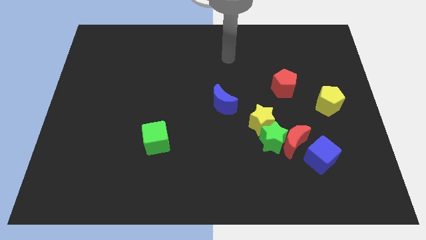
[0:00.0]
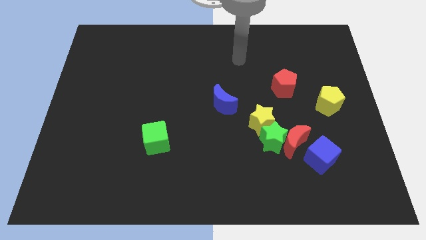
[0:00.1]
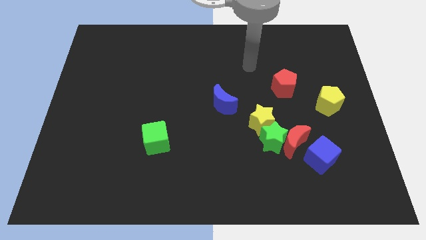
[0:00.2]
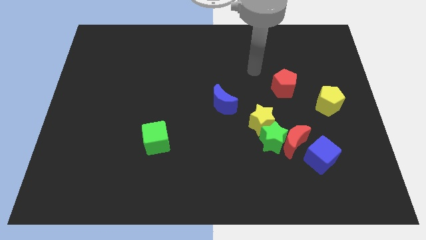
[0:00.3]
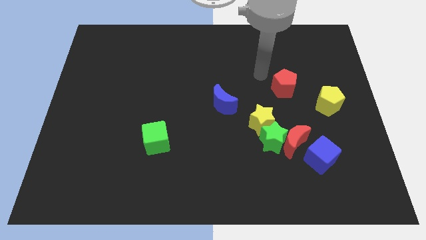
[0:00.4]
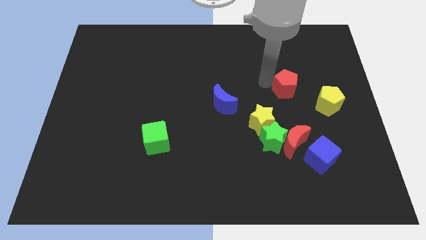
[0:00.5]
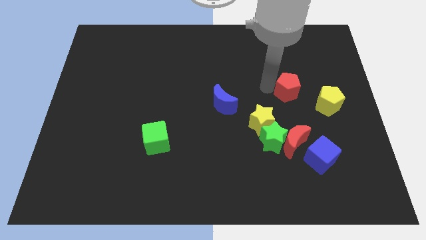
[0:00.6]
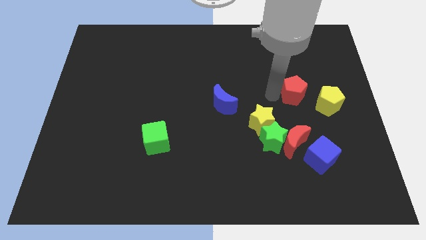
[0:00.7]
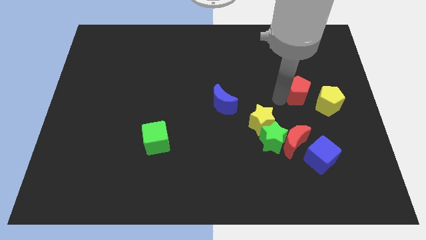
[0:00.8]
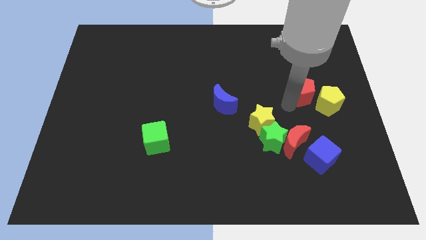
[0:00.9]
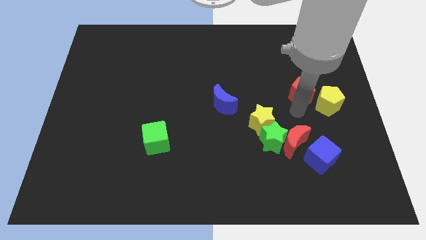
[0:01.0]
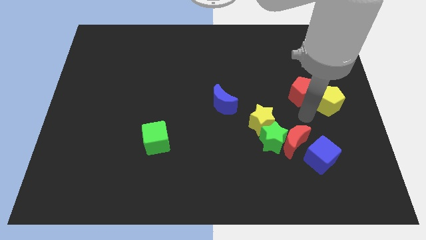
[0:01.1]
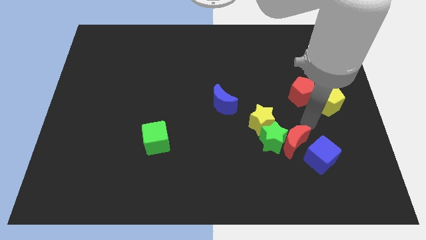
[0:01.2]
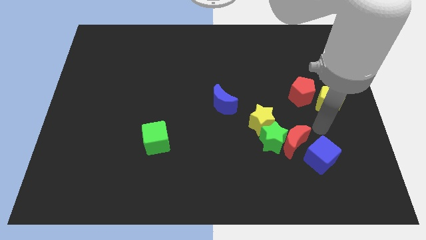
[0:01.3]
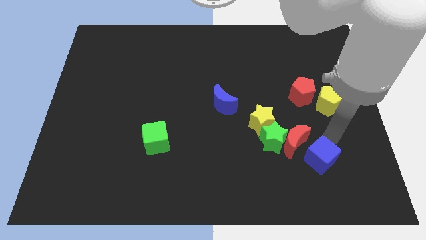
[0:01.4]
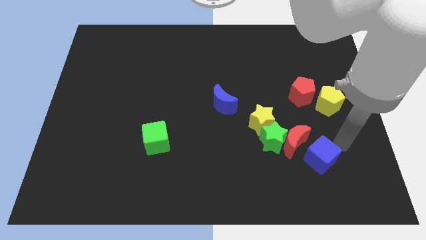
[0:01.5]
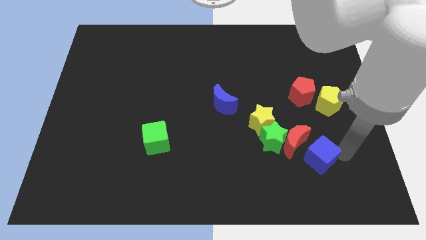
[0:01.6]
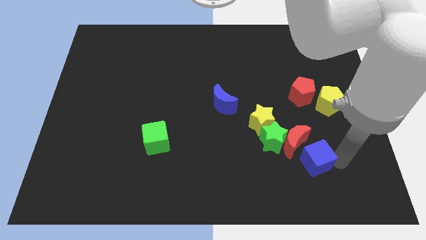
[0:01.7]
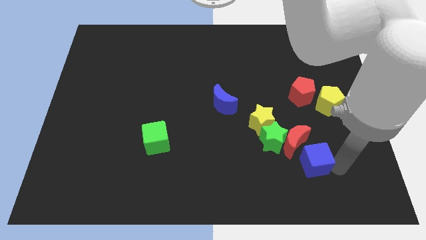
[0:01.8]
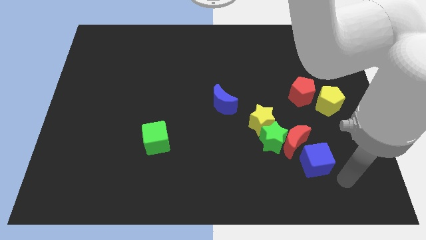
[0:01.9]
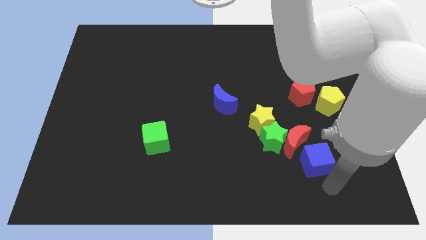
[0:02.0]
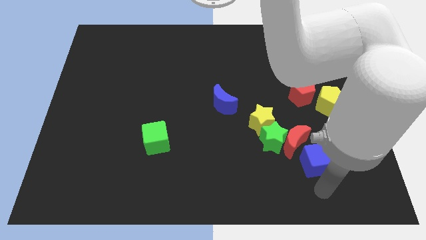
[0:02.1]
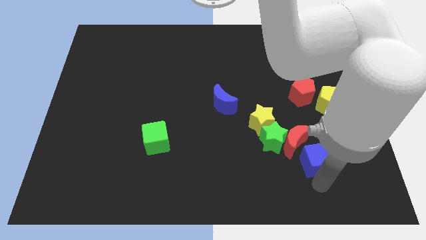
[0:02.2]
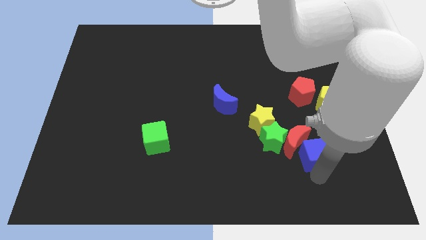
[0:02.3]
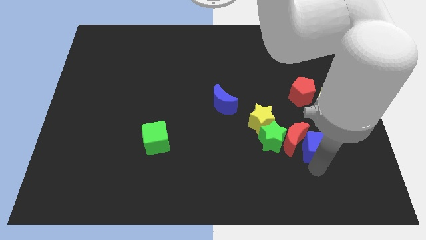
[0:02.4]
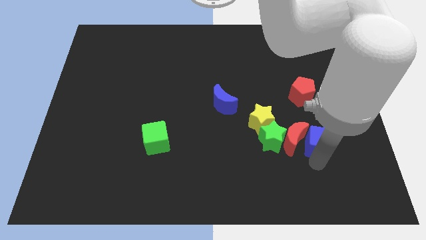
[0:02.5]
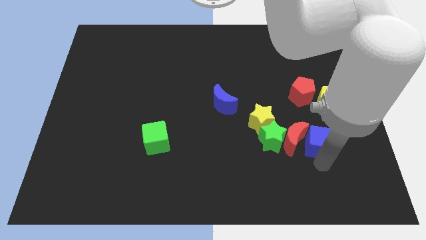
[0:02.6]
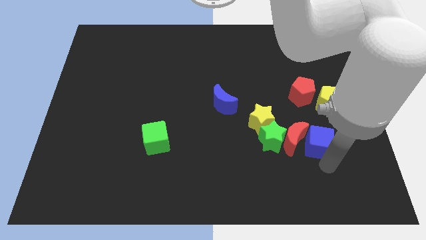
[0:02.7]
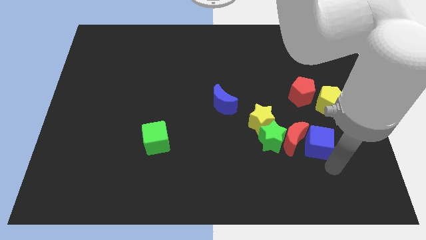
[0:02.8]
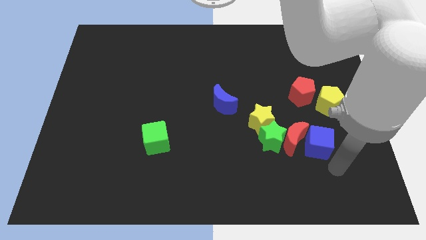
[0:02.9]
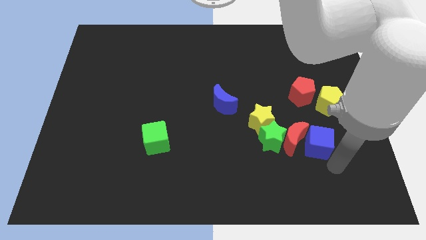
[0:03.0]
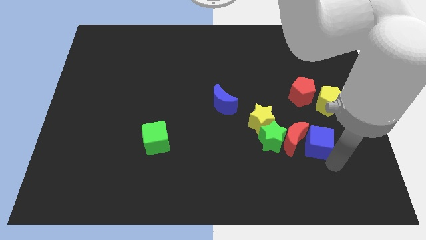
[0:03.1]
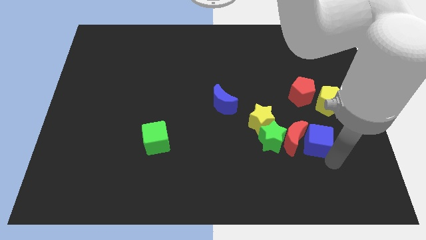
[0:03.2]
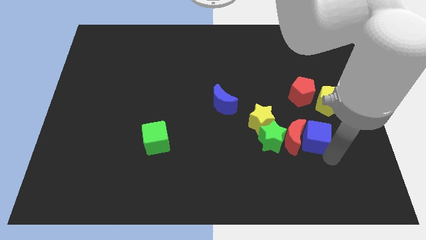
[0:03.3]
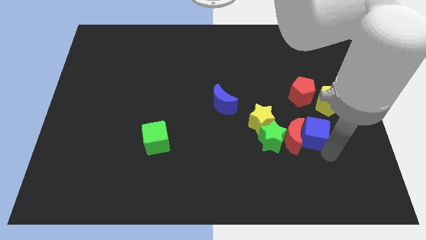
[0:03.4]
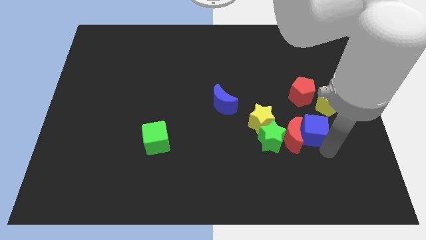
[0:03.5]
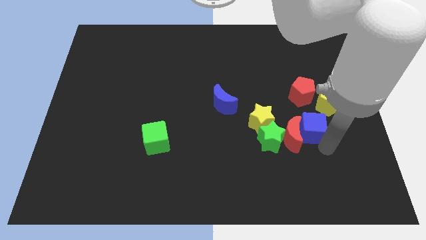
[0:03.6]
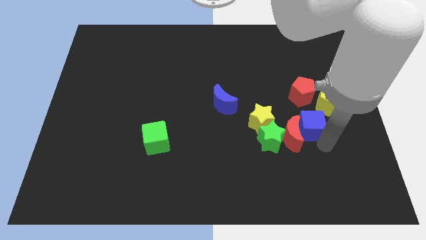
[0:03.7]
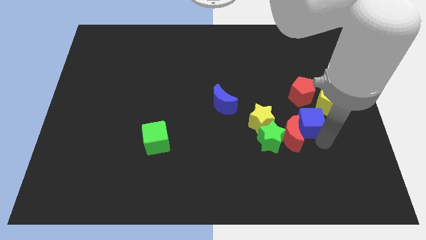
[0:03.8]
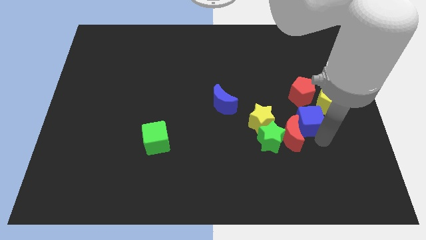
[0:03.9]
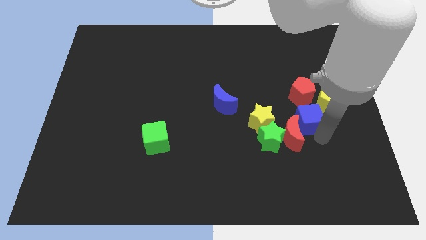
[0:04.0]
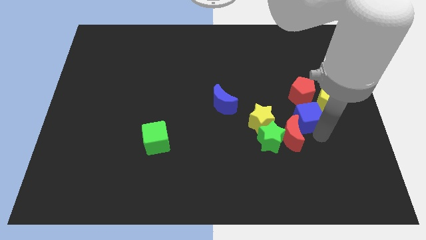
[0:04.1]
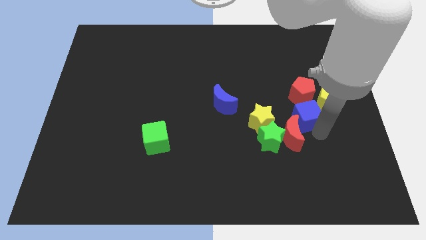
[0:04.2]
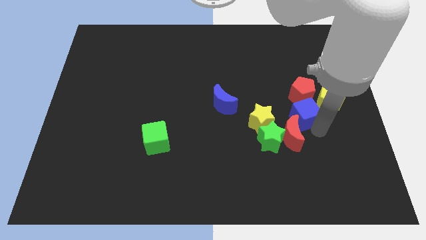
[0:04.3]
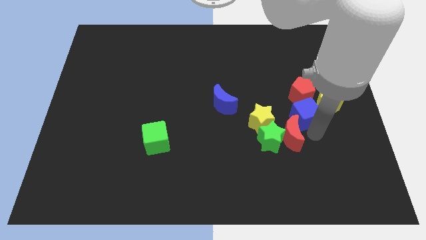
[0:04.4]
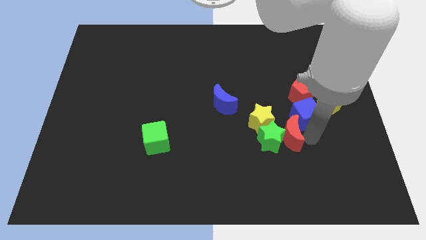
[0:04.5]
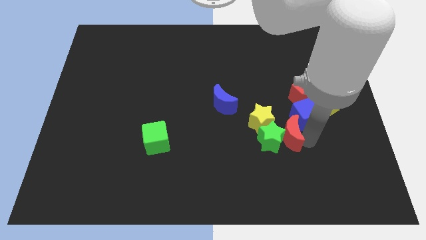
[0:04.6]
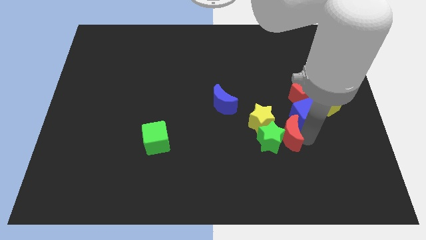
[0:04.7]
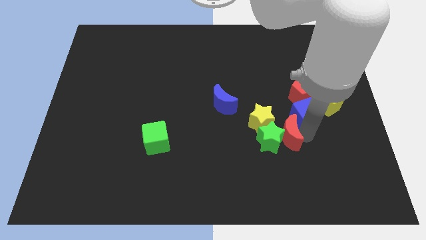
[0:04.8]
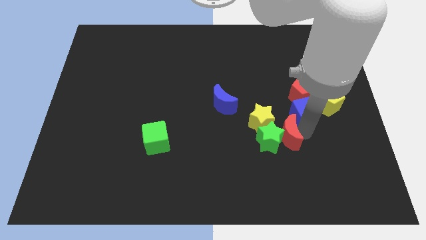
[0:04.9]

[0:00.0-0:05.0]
push the blue cube close to the red pentagon

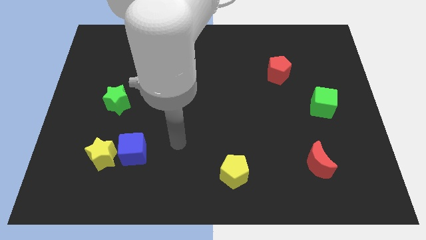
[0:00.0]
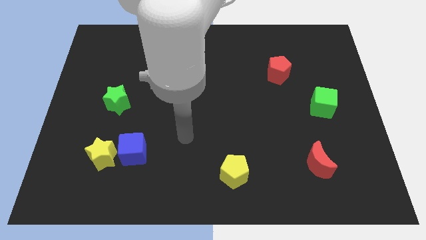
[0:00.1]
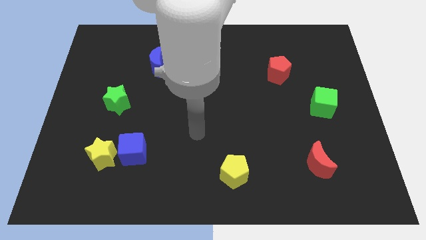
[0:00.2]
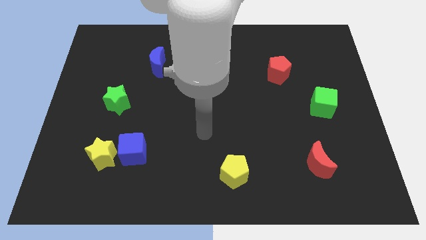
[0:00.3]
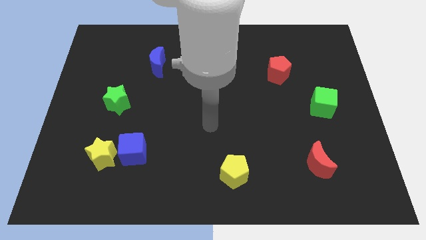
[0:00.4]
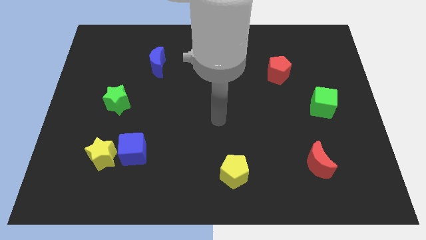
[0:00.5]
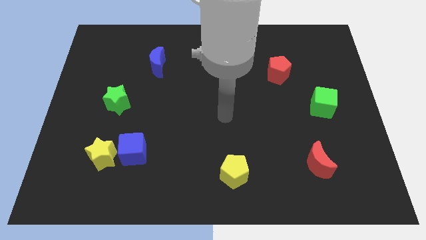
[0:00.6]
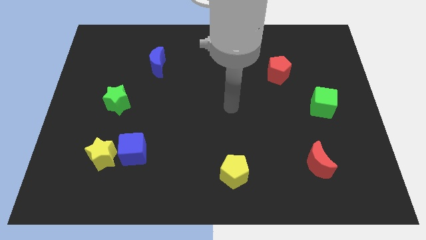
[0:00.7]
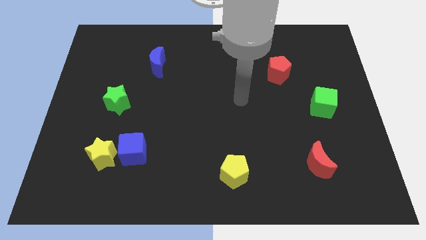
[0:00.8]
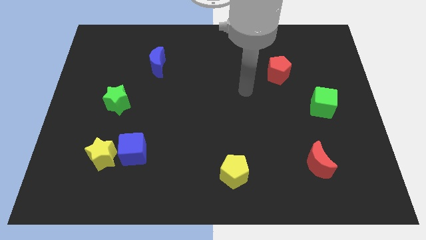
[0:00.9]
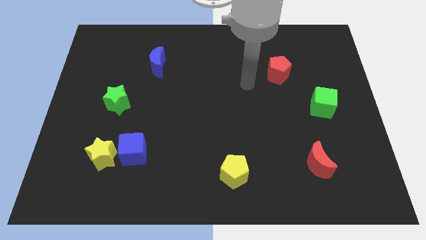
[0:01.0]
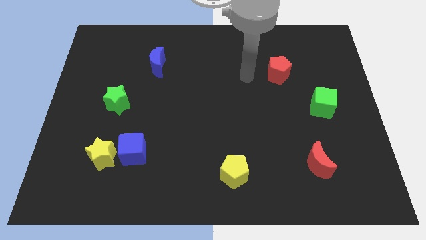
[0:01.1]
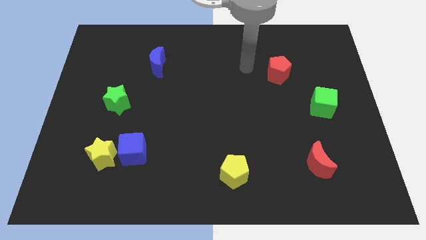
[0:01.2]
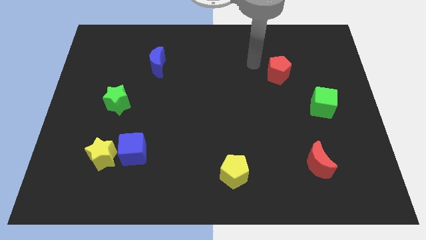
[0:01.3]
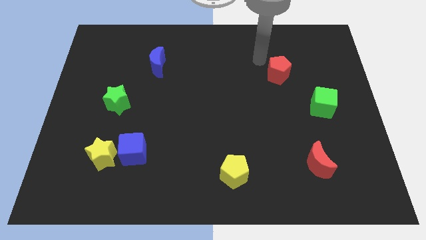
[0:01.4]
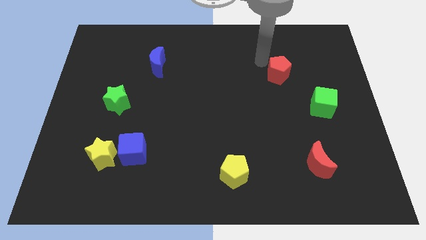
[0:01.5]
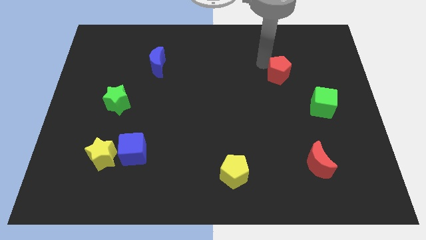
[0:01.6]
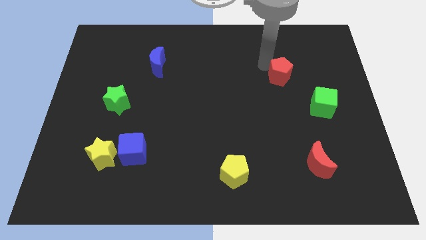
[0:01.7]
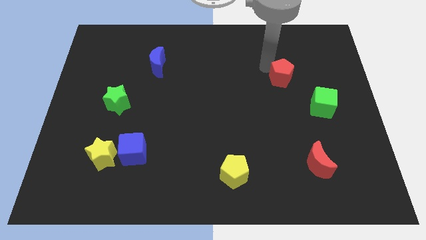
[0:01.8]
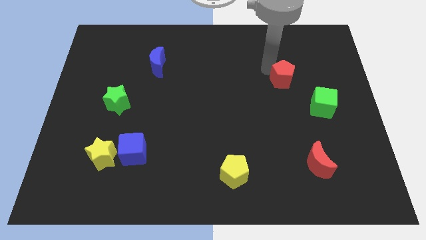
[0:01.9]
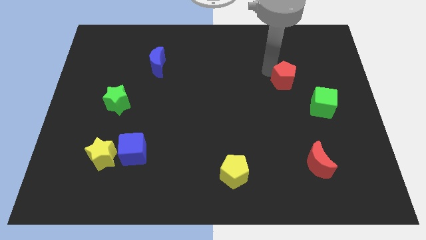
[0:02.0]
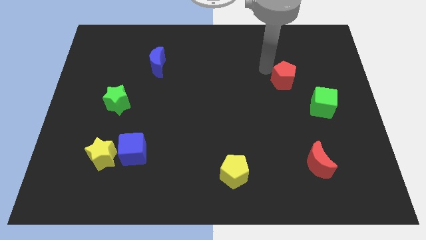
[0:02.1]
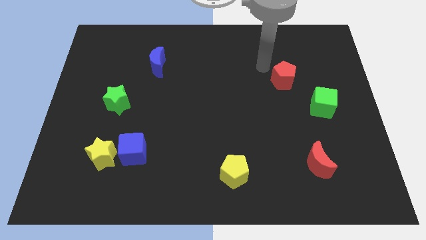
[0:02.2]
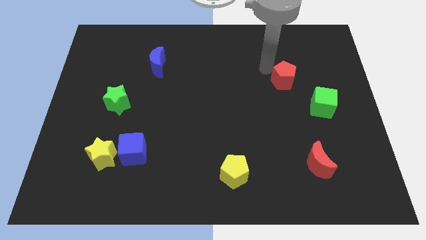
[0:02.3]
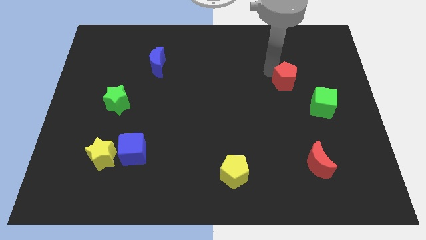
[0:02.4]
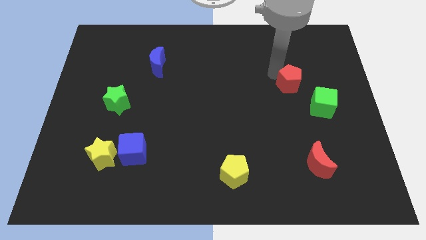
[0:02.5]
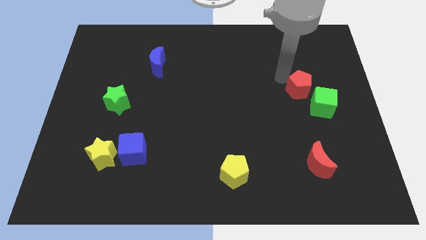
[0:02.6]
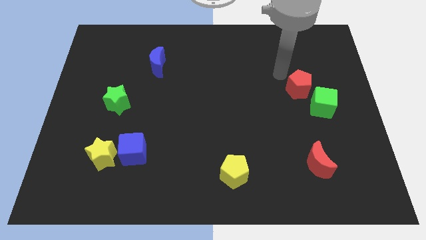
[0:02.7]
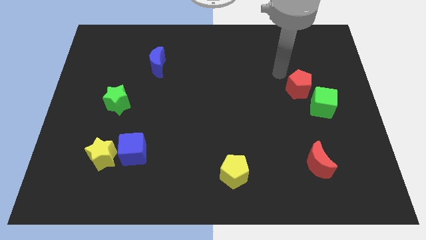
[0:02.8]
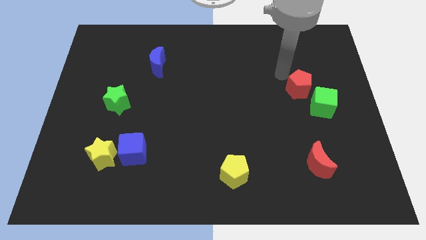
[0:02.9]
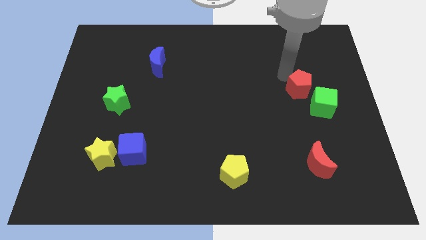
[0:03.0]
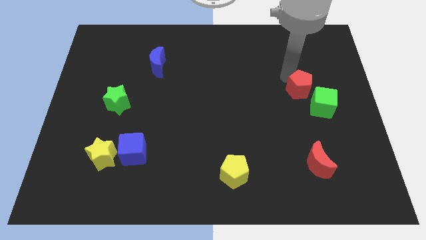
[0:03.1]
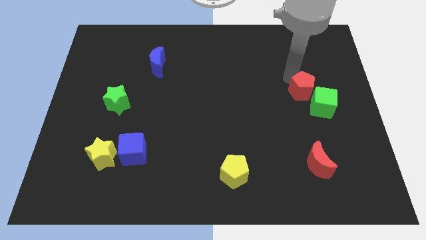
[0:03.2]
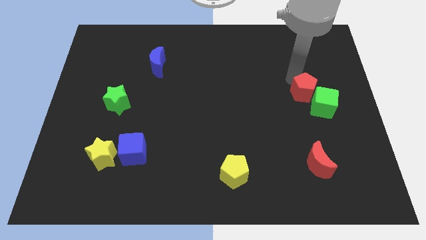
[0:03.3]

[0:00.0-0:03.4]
slide the red pentagon next to the green cube
